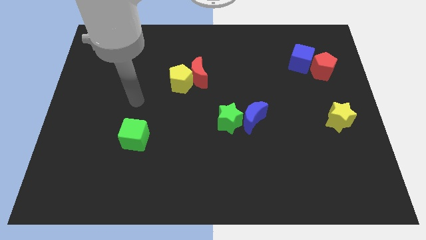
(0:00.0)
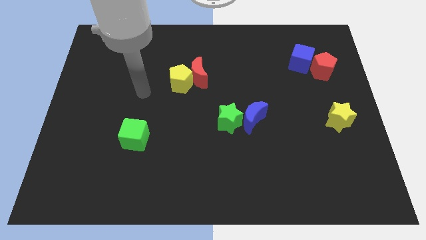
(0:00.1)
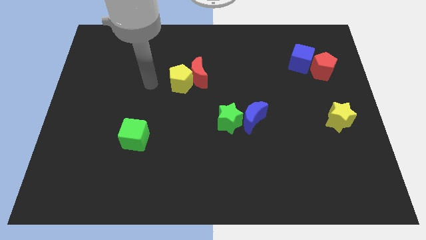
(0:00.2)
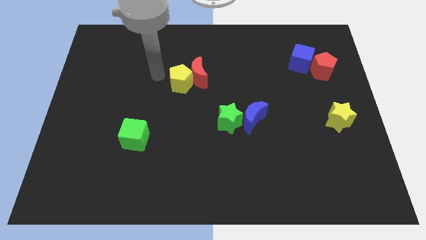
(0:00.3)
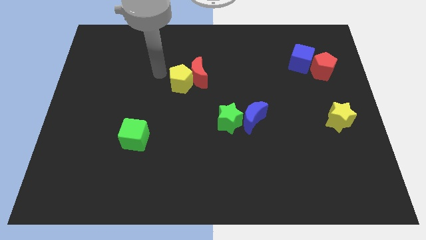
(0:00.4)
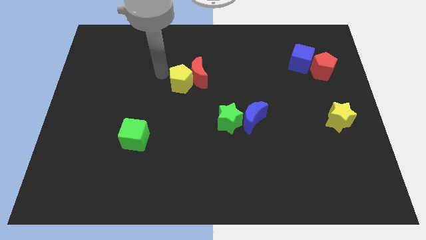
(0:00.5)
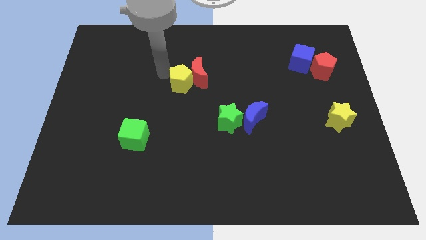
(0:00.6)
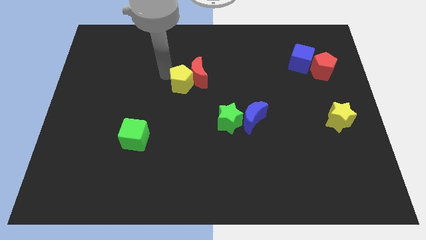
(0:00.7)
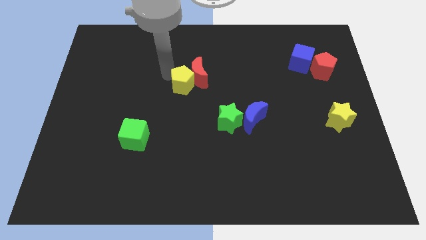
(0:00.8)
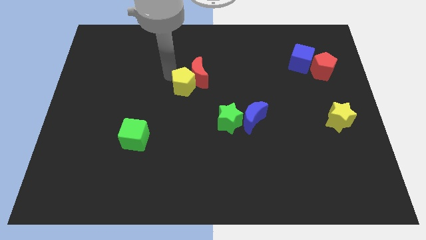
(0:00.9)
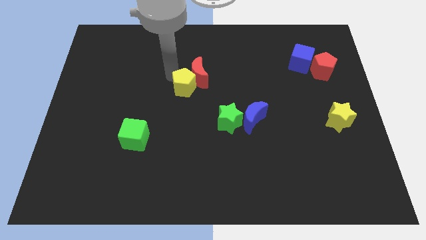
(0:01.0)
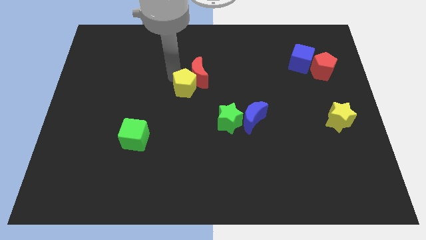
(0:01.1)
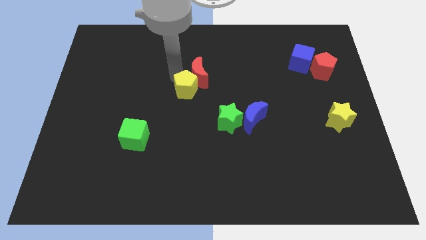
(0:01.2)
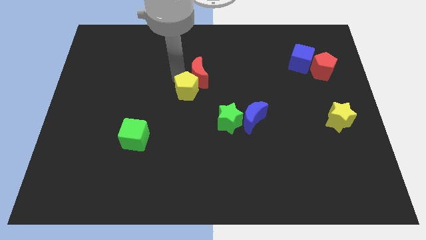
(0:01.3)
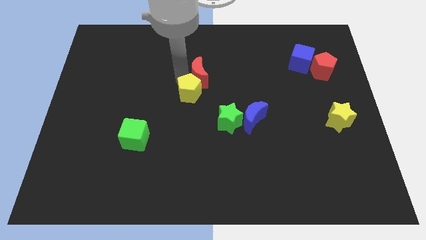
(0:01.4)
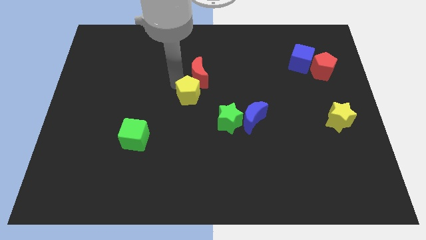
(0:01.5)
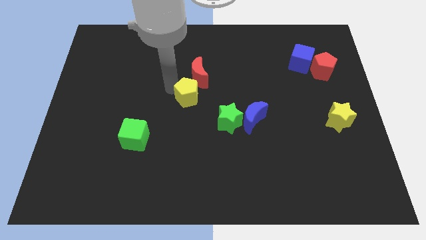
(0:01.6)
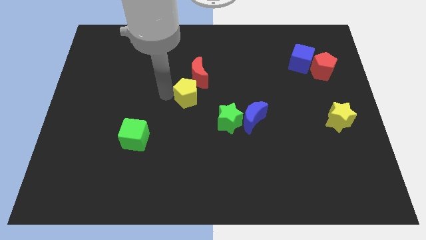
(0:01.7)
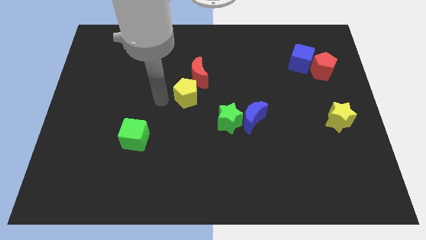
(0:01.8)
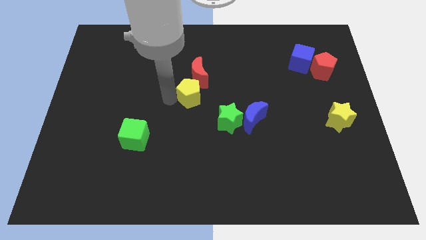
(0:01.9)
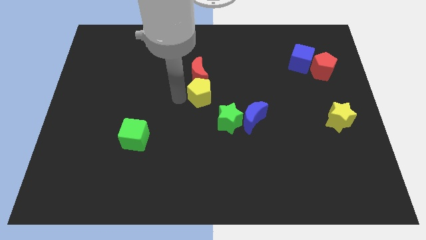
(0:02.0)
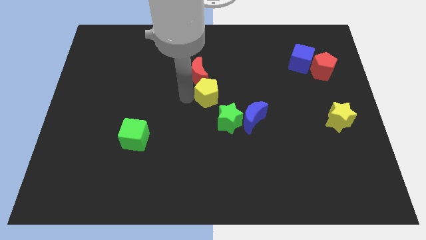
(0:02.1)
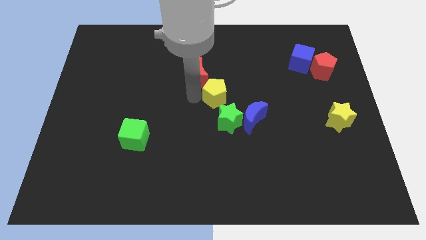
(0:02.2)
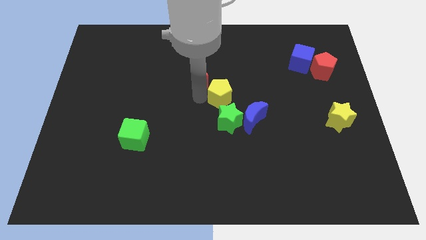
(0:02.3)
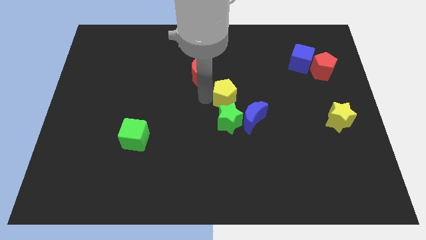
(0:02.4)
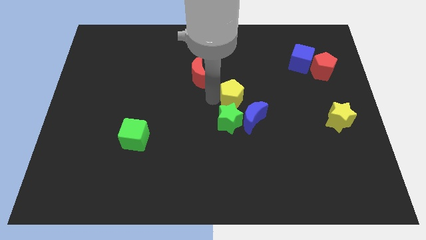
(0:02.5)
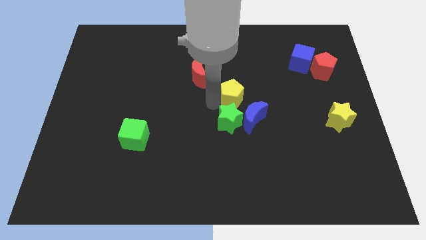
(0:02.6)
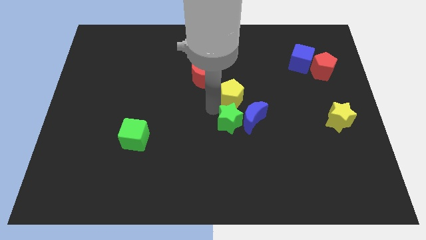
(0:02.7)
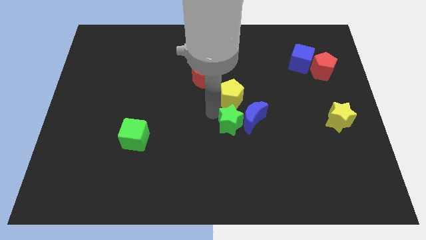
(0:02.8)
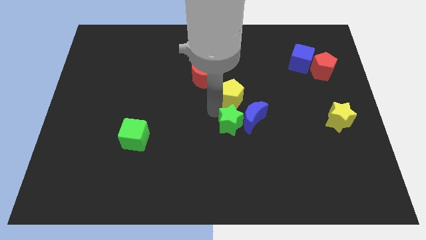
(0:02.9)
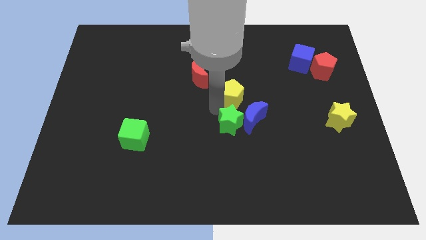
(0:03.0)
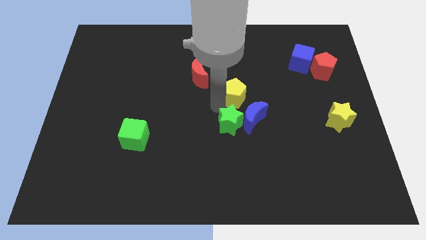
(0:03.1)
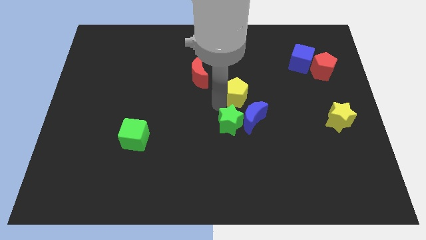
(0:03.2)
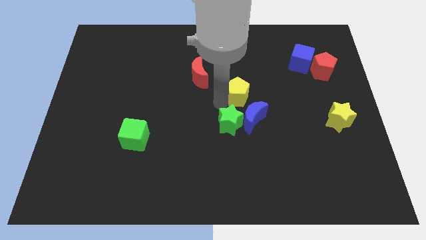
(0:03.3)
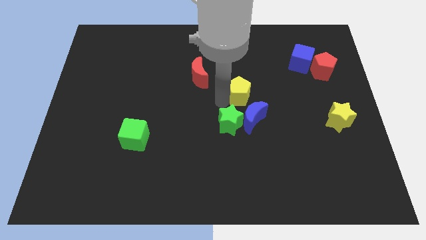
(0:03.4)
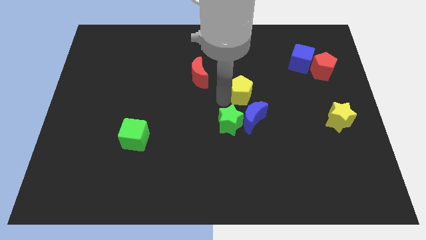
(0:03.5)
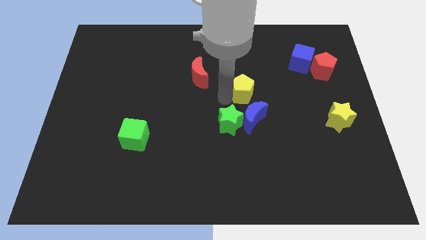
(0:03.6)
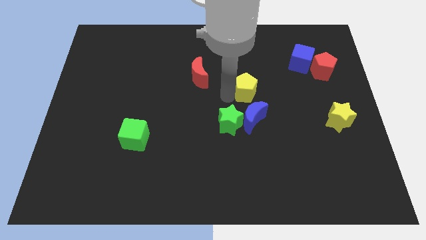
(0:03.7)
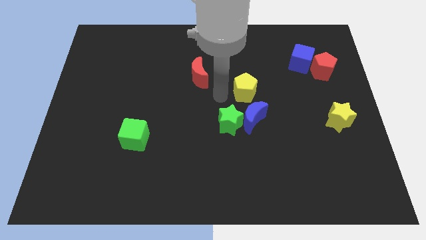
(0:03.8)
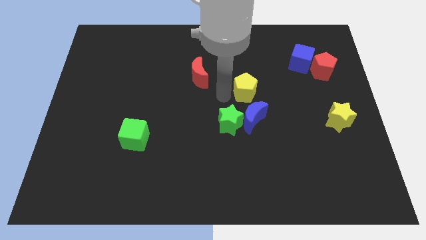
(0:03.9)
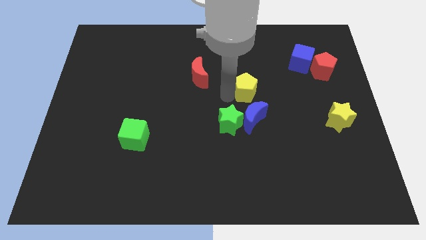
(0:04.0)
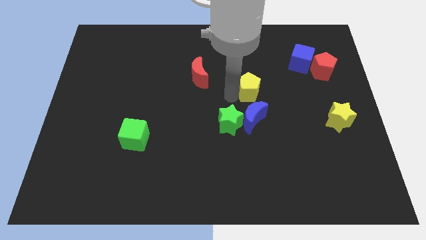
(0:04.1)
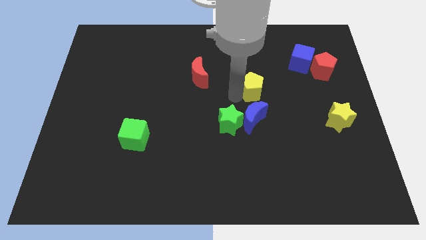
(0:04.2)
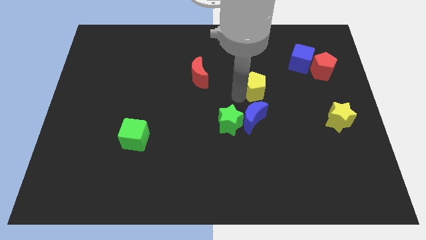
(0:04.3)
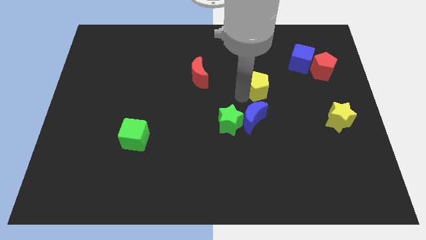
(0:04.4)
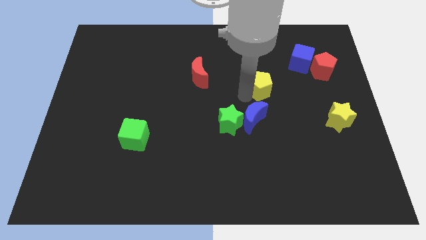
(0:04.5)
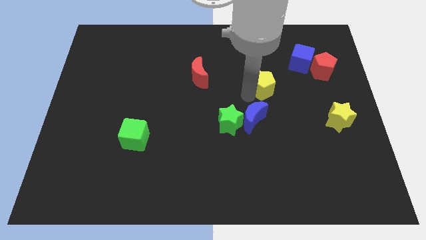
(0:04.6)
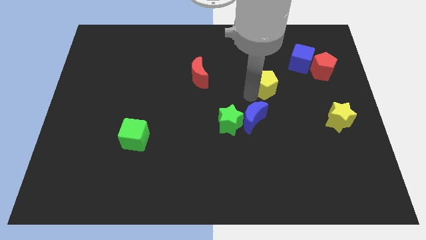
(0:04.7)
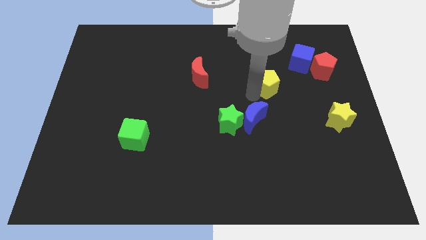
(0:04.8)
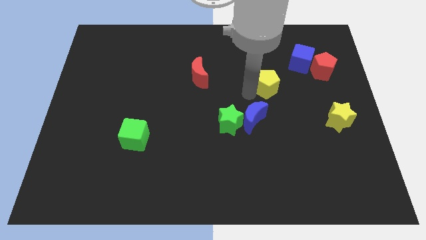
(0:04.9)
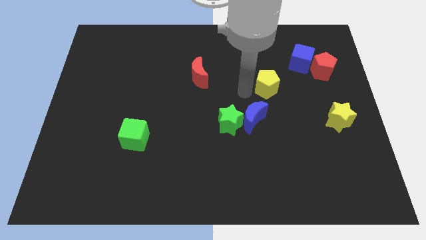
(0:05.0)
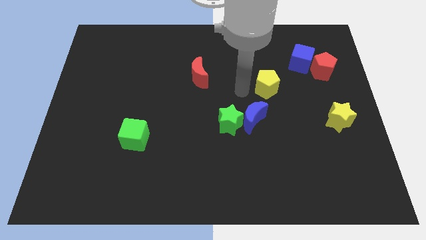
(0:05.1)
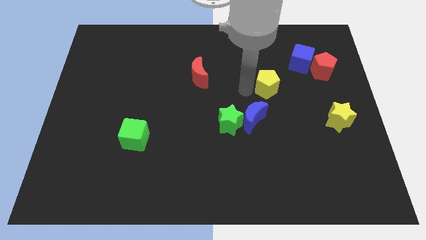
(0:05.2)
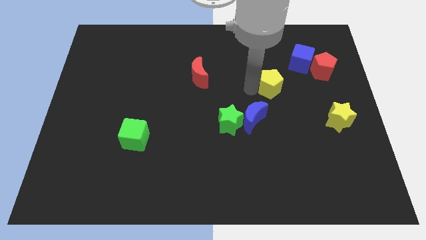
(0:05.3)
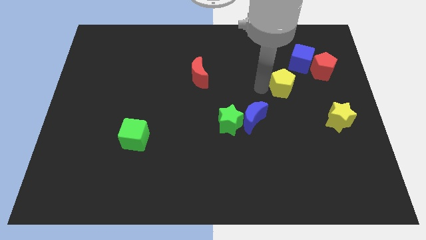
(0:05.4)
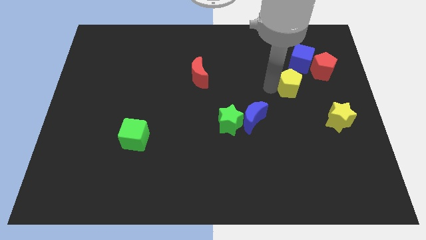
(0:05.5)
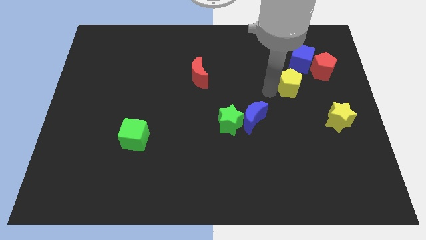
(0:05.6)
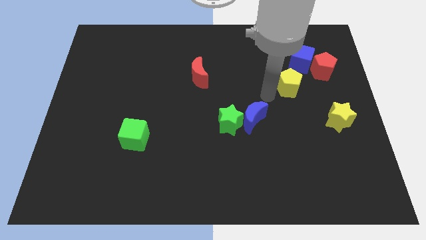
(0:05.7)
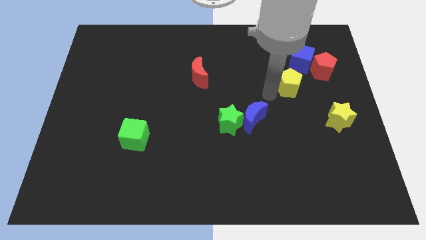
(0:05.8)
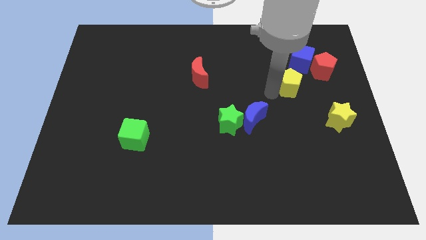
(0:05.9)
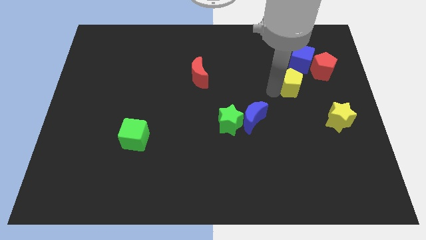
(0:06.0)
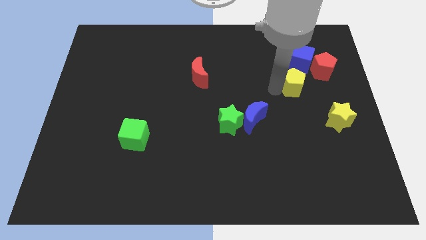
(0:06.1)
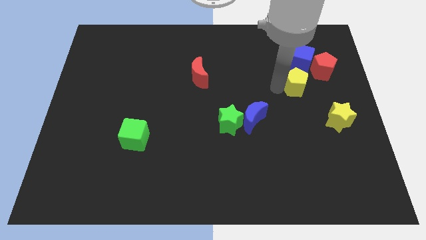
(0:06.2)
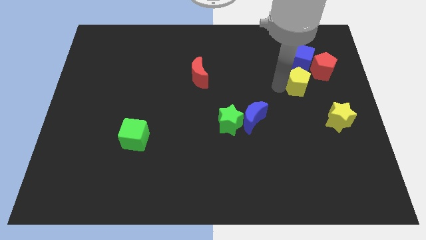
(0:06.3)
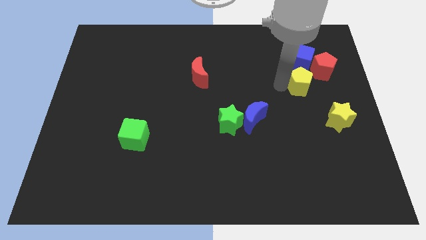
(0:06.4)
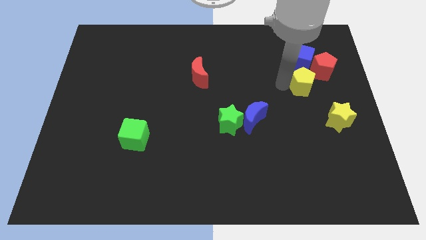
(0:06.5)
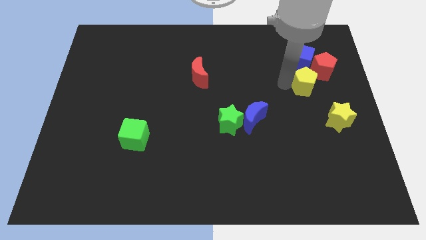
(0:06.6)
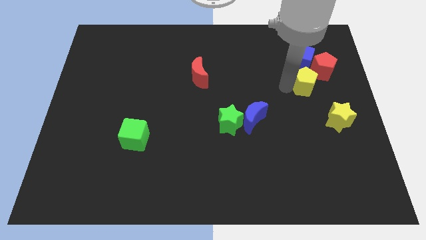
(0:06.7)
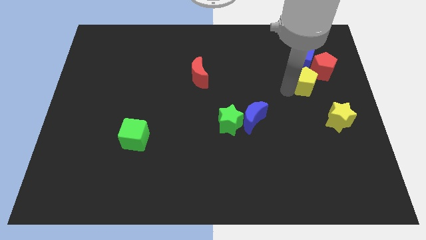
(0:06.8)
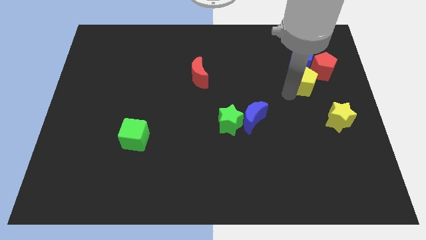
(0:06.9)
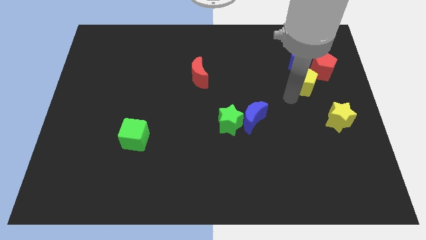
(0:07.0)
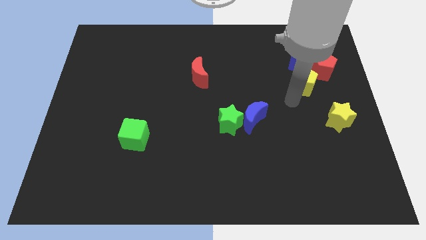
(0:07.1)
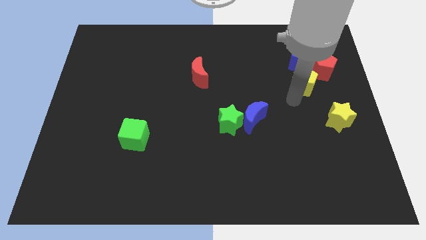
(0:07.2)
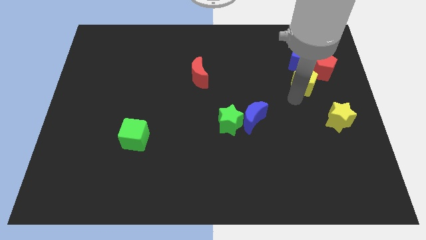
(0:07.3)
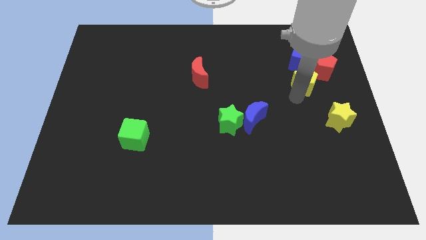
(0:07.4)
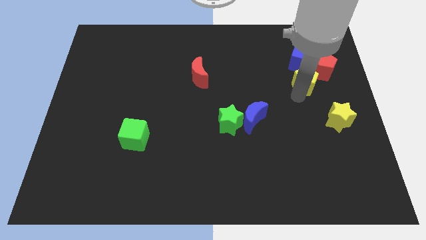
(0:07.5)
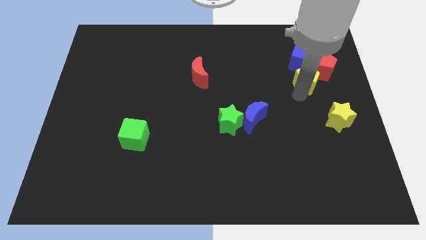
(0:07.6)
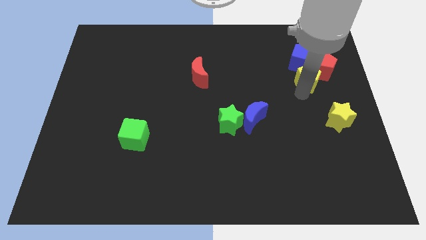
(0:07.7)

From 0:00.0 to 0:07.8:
move the yellow pentagon towards the red pentagon

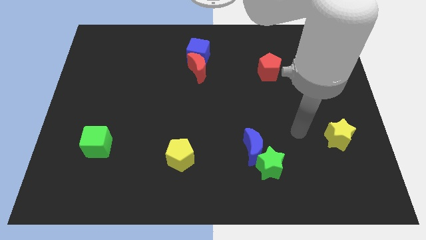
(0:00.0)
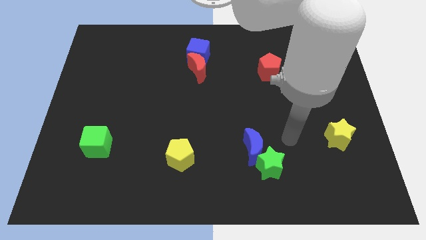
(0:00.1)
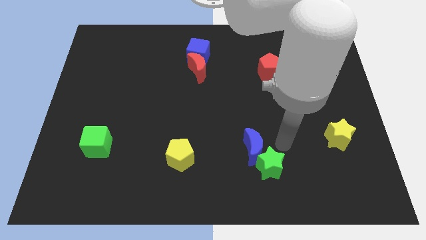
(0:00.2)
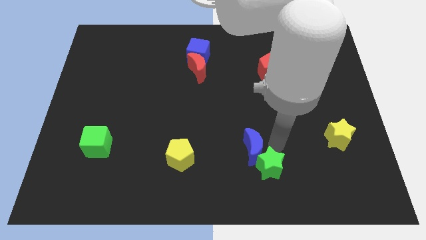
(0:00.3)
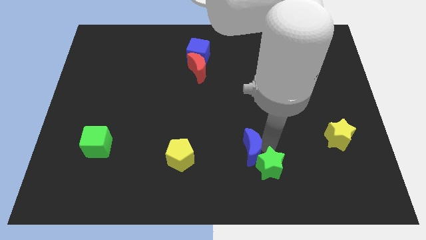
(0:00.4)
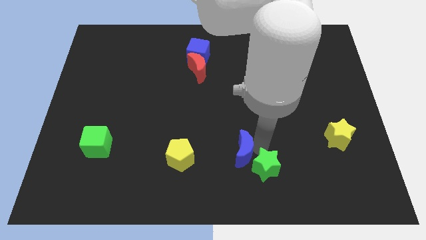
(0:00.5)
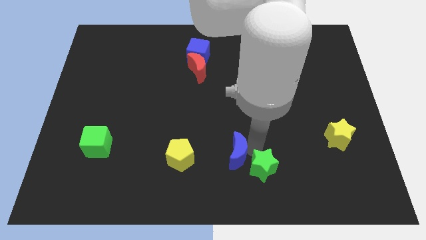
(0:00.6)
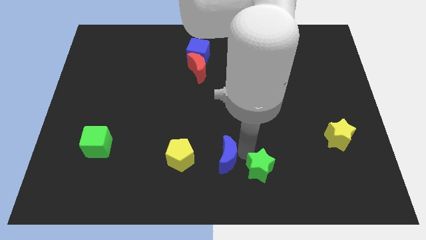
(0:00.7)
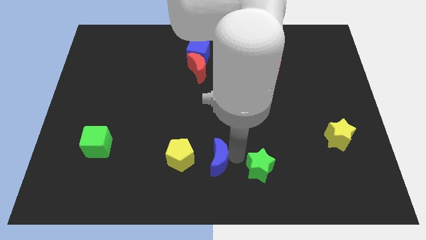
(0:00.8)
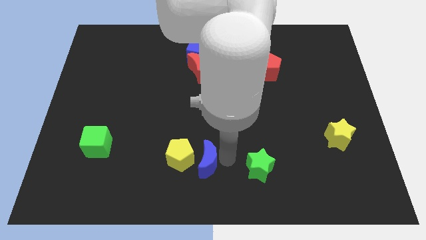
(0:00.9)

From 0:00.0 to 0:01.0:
slide the blue moon to the yellow pentagon
